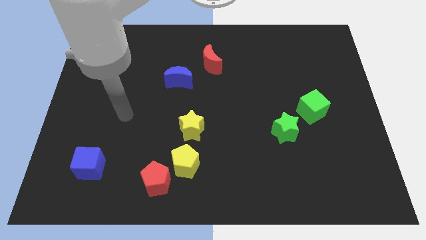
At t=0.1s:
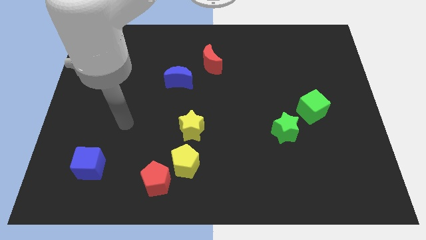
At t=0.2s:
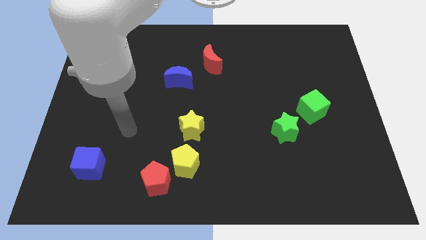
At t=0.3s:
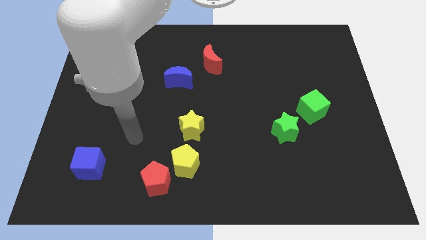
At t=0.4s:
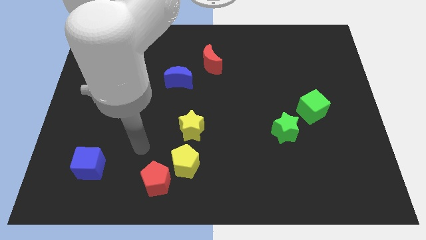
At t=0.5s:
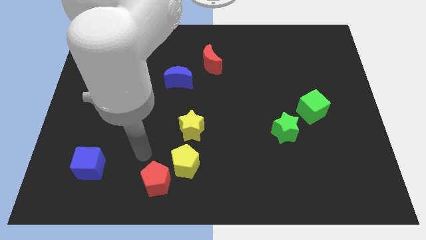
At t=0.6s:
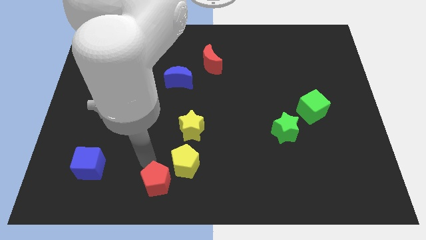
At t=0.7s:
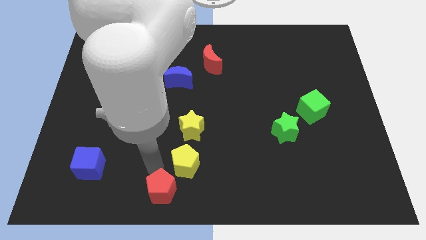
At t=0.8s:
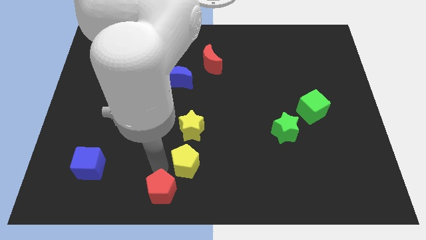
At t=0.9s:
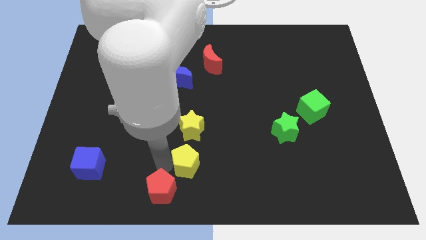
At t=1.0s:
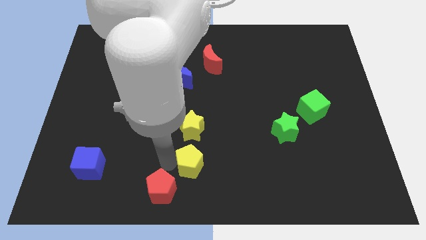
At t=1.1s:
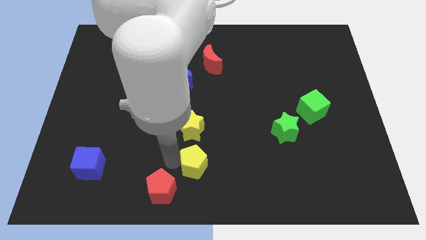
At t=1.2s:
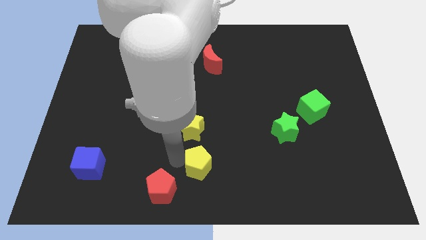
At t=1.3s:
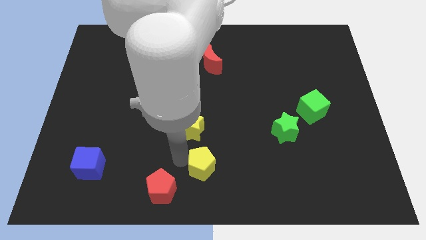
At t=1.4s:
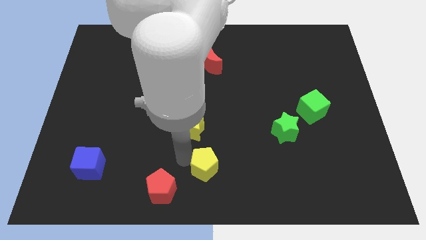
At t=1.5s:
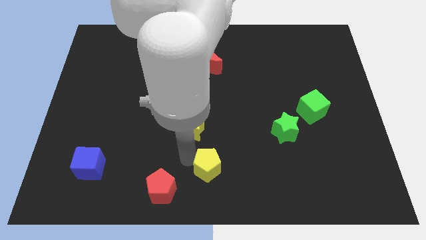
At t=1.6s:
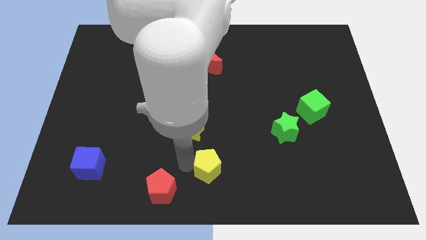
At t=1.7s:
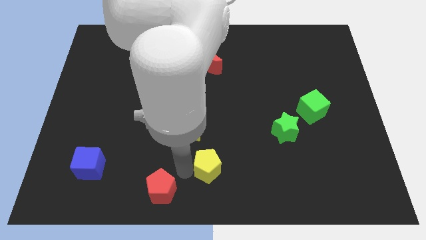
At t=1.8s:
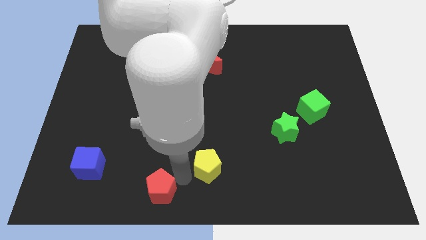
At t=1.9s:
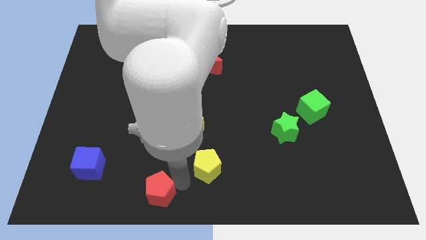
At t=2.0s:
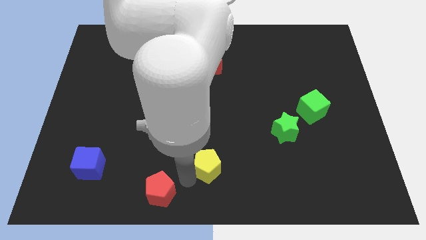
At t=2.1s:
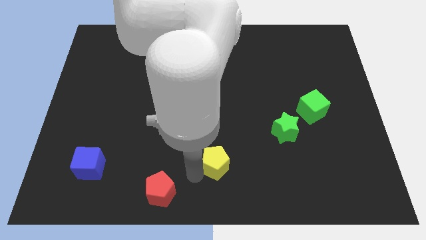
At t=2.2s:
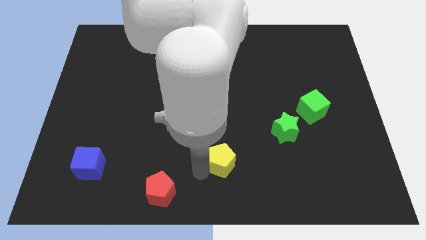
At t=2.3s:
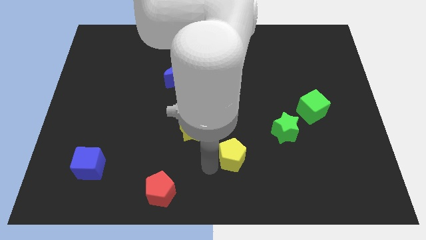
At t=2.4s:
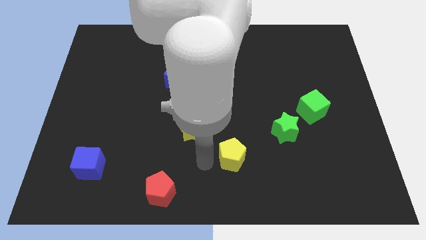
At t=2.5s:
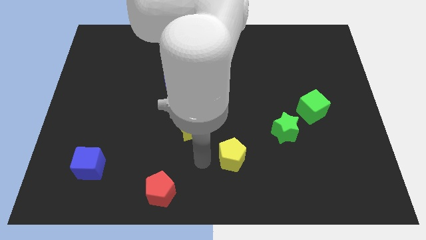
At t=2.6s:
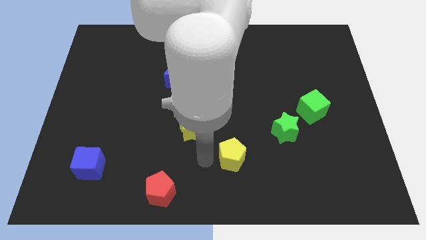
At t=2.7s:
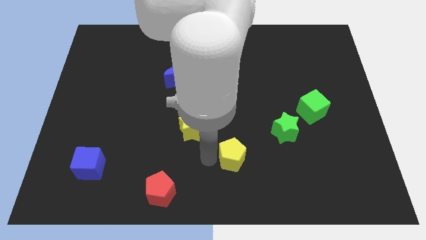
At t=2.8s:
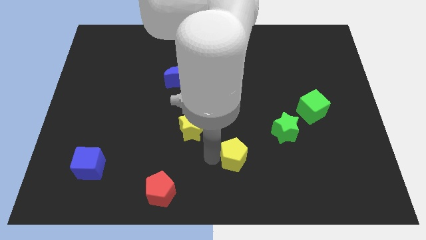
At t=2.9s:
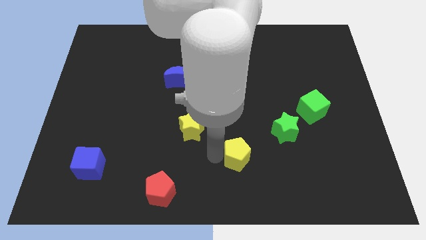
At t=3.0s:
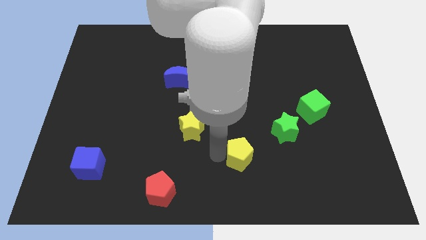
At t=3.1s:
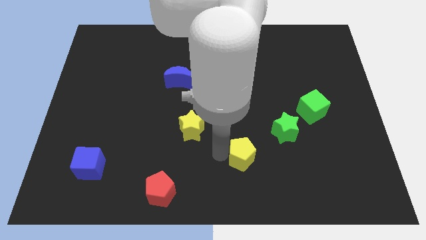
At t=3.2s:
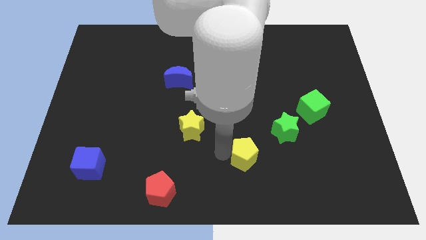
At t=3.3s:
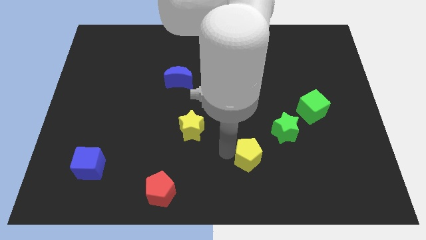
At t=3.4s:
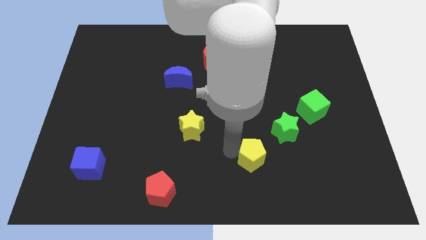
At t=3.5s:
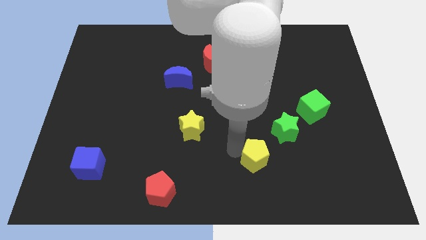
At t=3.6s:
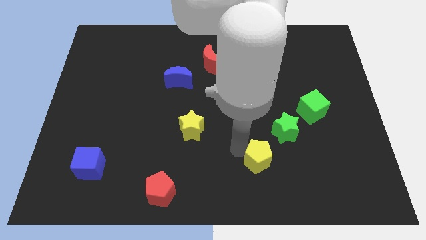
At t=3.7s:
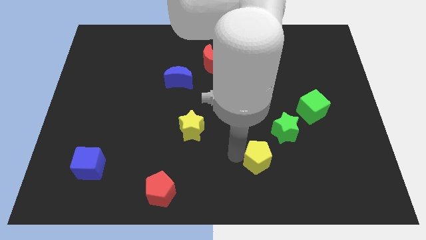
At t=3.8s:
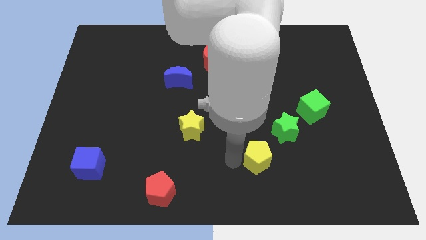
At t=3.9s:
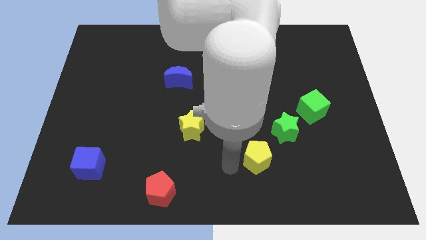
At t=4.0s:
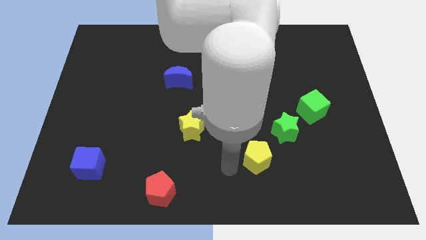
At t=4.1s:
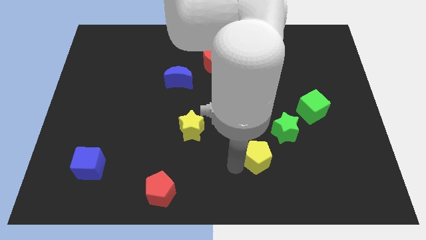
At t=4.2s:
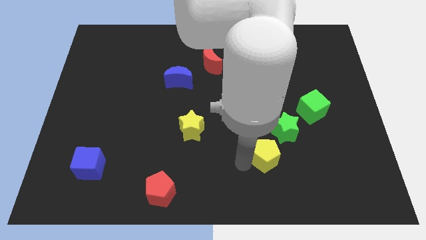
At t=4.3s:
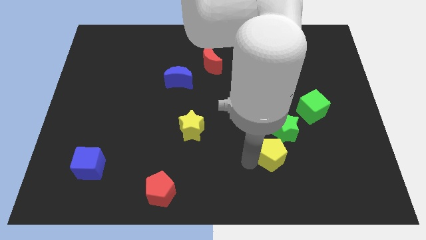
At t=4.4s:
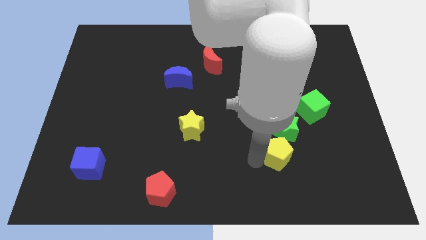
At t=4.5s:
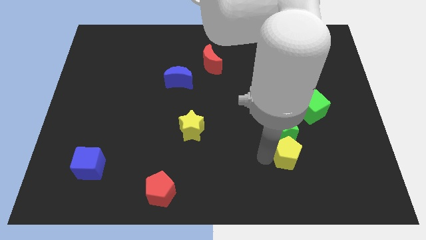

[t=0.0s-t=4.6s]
slide the yellow pentagon to the right

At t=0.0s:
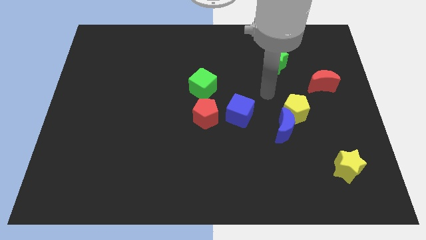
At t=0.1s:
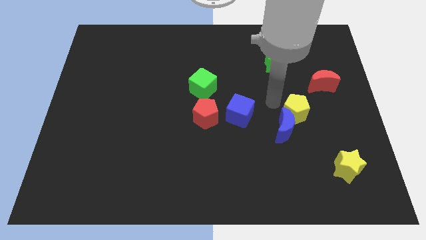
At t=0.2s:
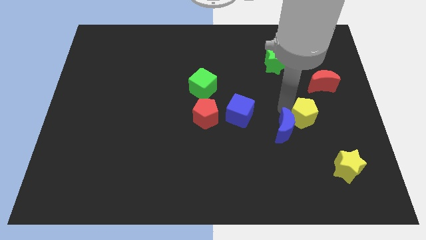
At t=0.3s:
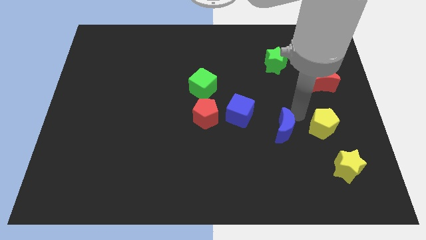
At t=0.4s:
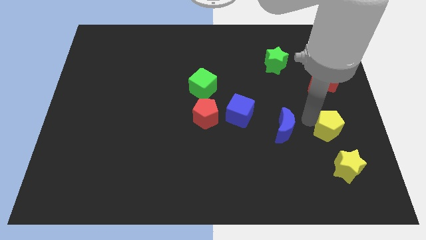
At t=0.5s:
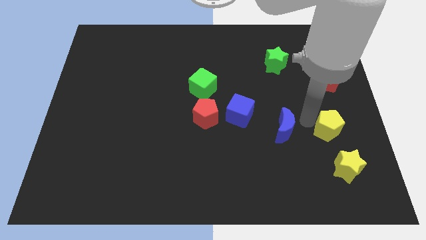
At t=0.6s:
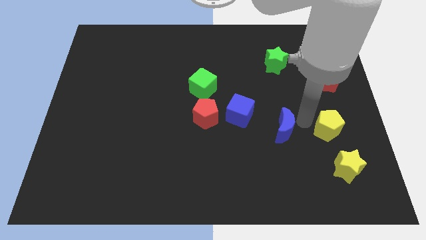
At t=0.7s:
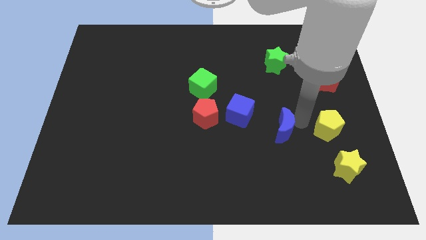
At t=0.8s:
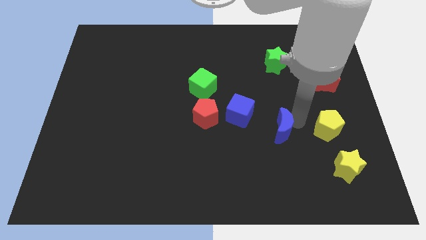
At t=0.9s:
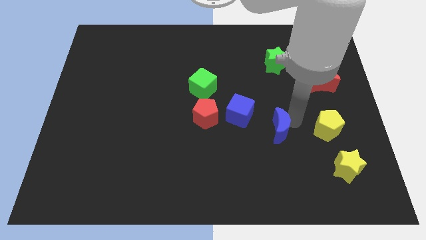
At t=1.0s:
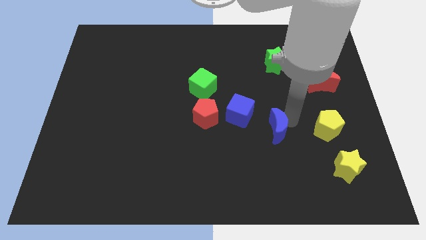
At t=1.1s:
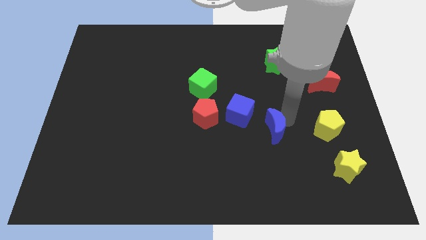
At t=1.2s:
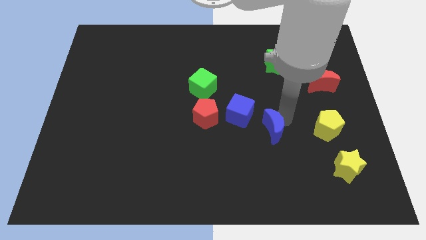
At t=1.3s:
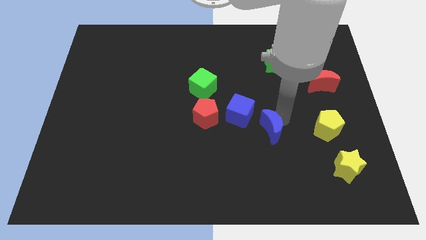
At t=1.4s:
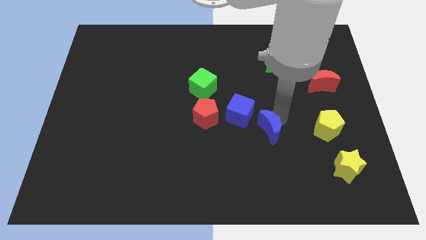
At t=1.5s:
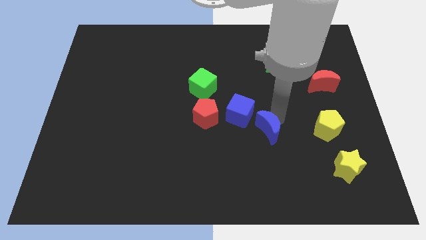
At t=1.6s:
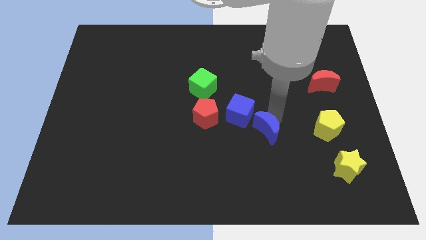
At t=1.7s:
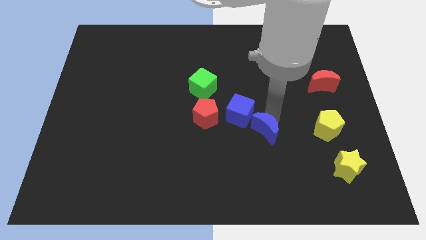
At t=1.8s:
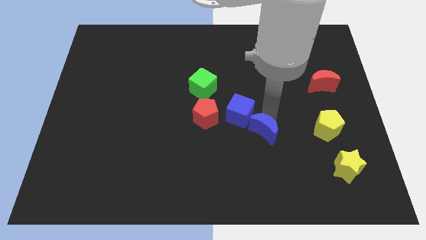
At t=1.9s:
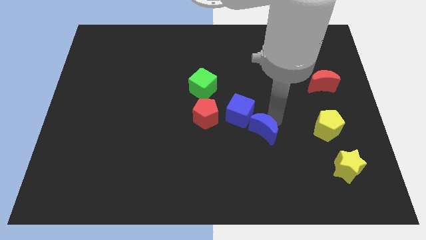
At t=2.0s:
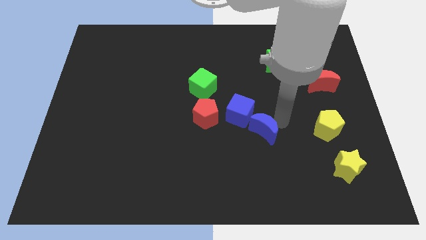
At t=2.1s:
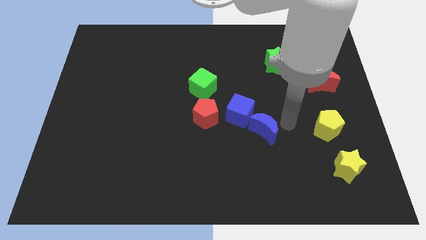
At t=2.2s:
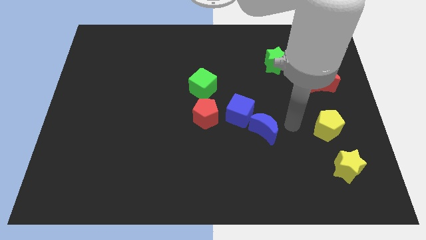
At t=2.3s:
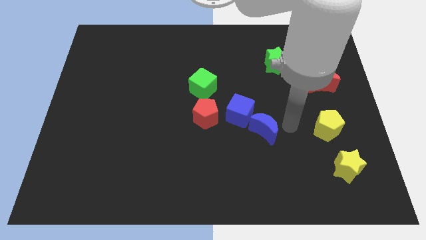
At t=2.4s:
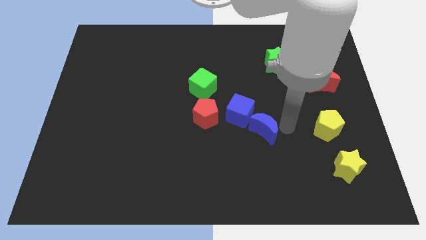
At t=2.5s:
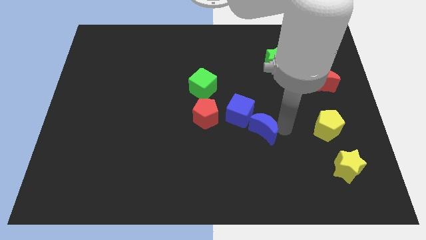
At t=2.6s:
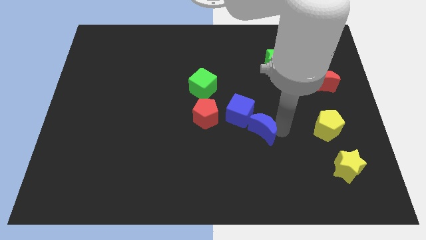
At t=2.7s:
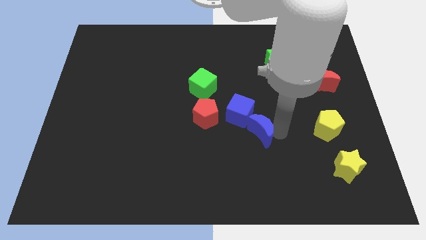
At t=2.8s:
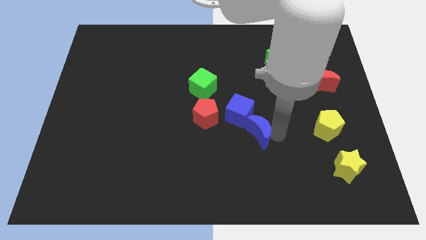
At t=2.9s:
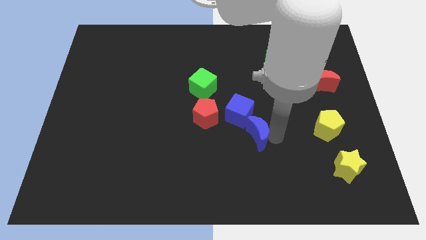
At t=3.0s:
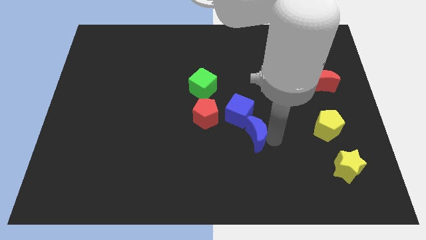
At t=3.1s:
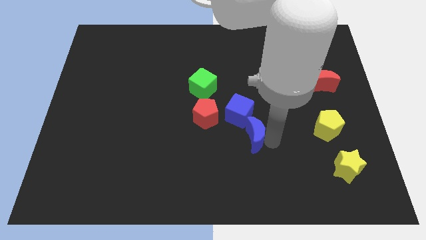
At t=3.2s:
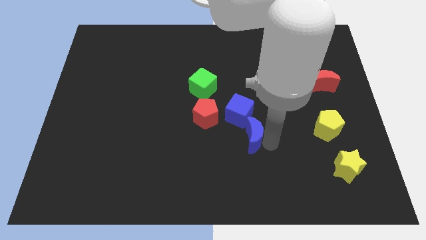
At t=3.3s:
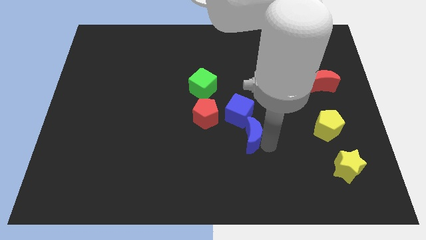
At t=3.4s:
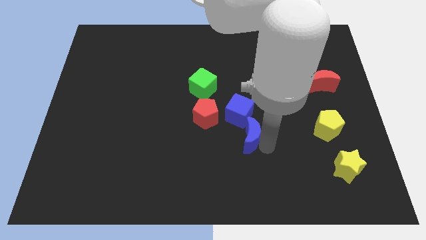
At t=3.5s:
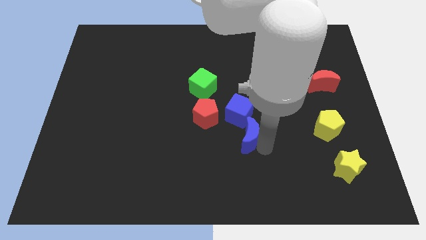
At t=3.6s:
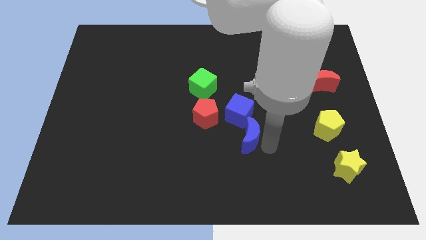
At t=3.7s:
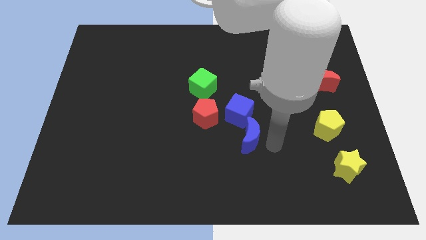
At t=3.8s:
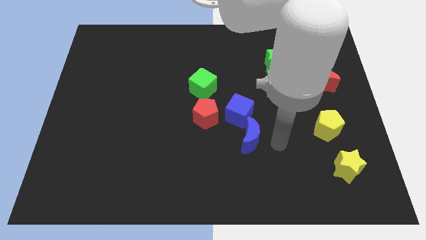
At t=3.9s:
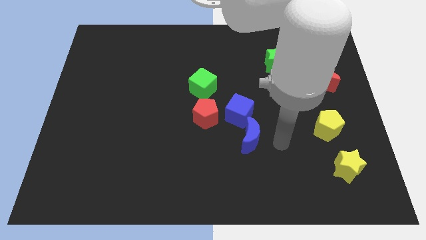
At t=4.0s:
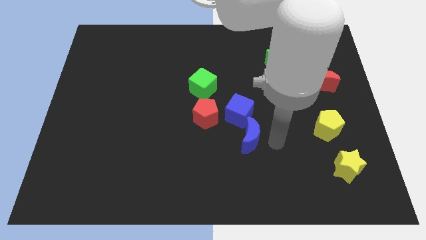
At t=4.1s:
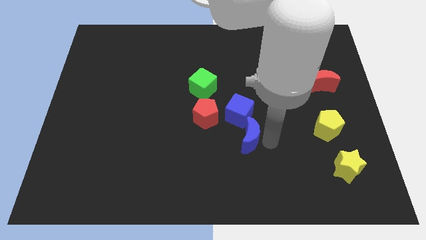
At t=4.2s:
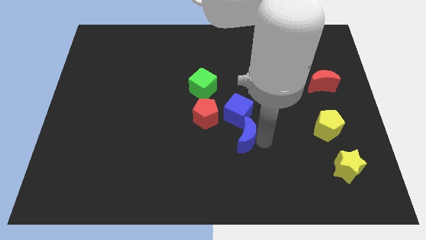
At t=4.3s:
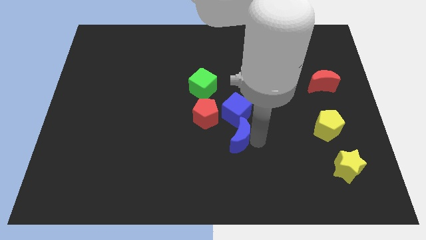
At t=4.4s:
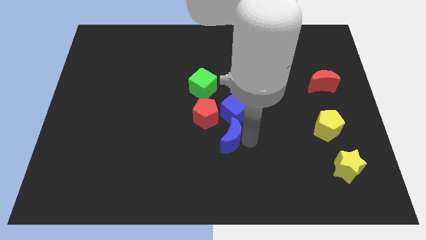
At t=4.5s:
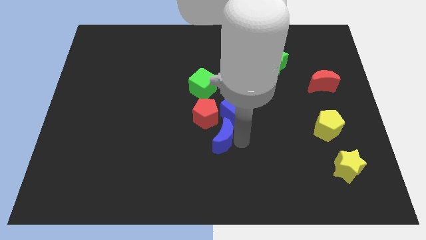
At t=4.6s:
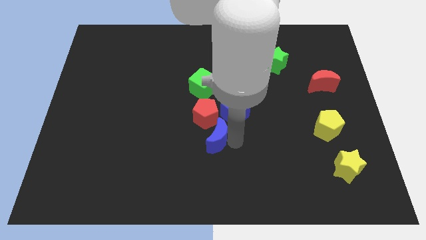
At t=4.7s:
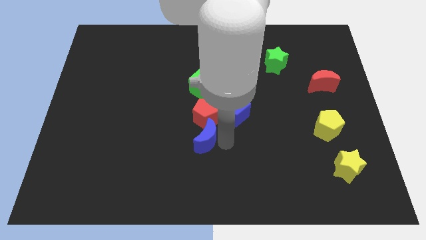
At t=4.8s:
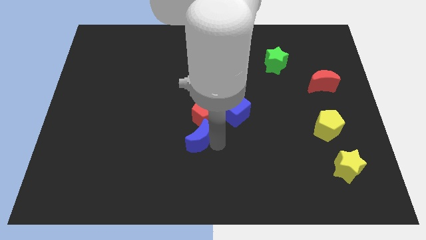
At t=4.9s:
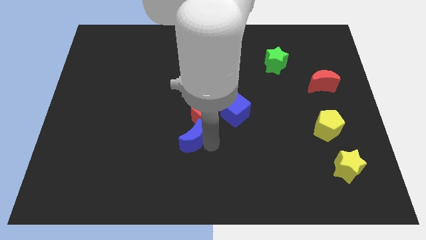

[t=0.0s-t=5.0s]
move the blue moon left
